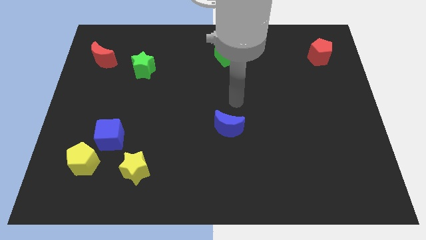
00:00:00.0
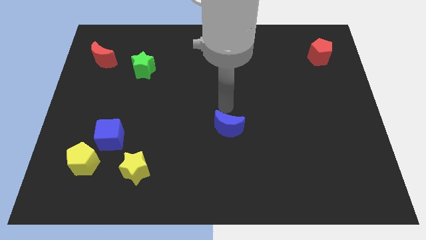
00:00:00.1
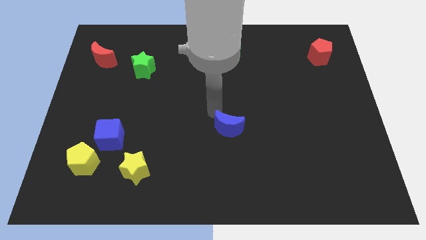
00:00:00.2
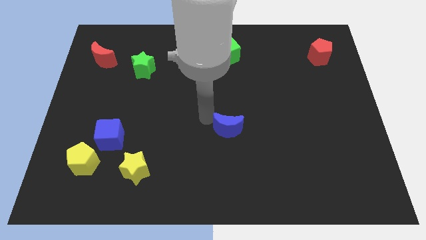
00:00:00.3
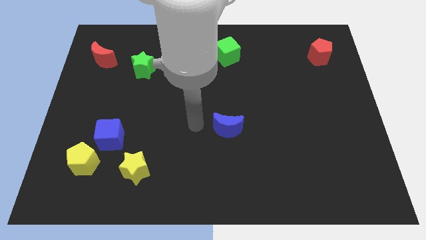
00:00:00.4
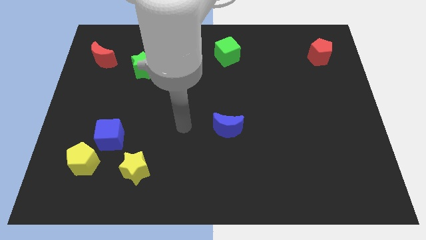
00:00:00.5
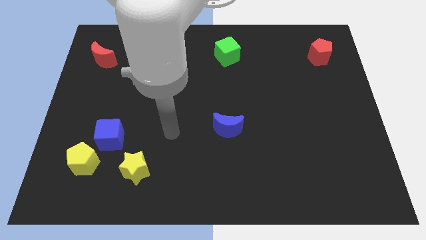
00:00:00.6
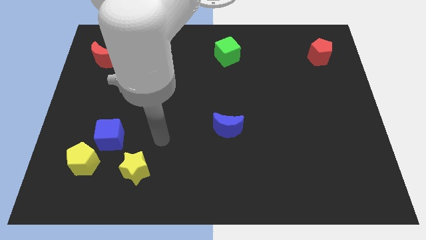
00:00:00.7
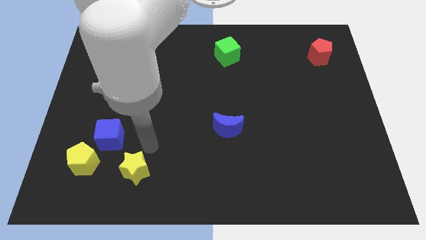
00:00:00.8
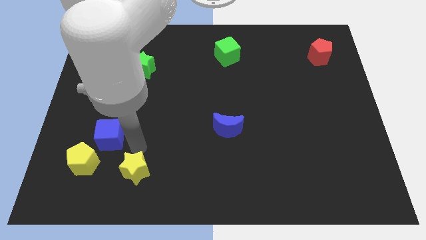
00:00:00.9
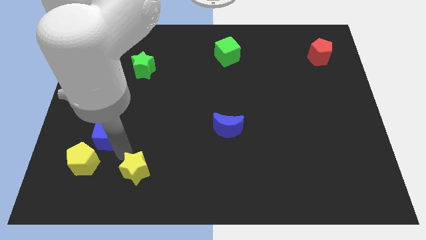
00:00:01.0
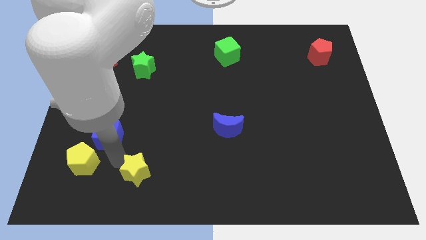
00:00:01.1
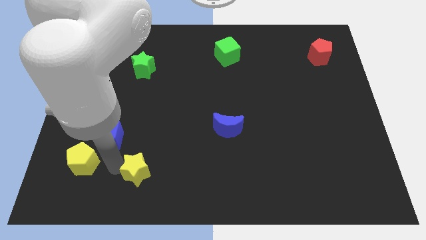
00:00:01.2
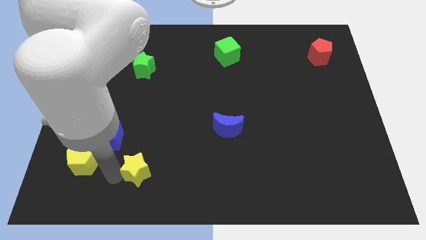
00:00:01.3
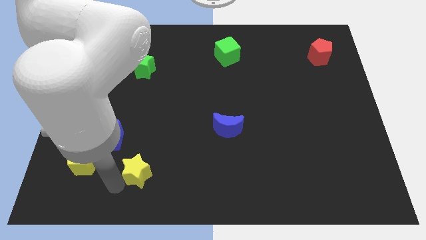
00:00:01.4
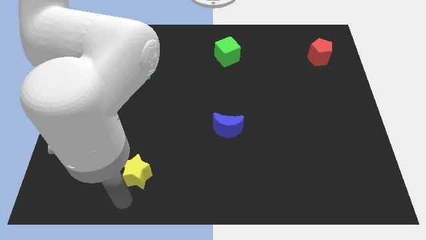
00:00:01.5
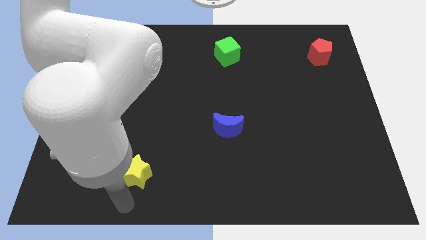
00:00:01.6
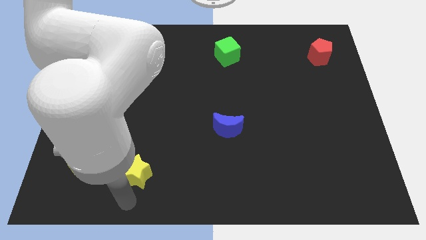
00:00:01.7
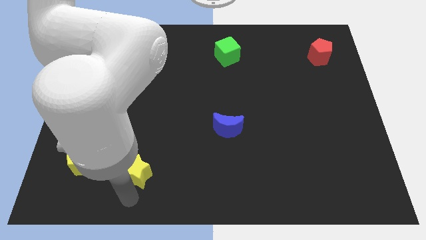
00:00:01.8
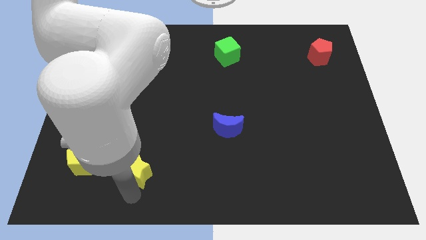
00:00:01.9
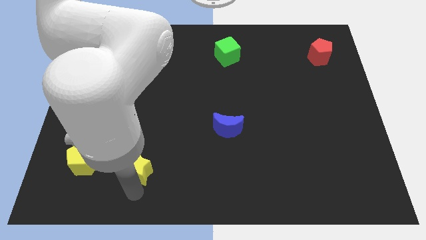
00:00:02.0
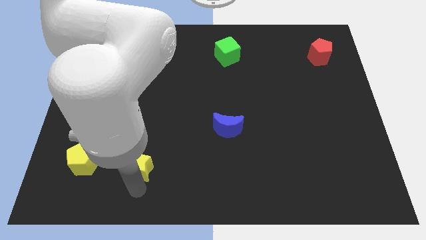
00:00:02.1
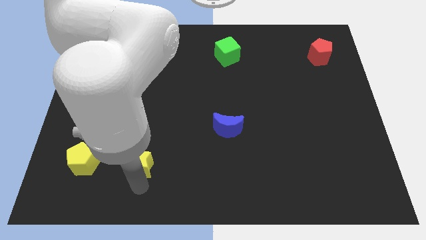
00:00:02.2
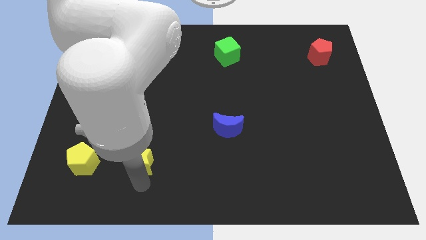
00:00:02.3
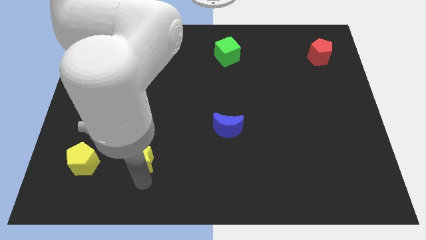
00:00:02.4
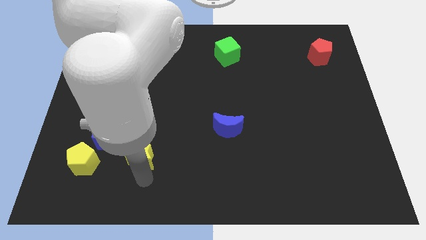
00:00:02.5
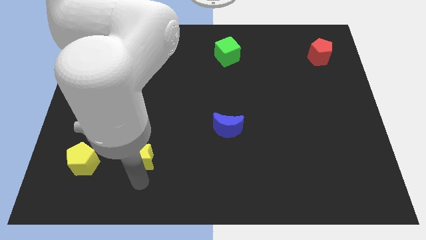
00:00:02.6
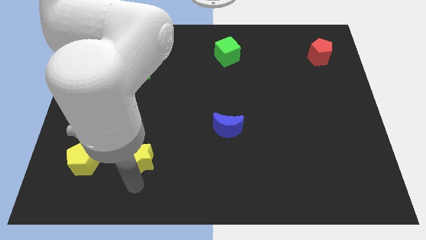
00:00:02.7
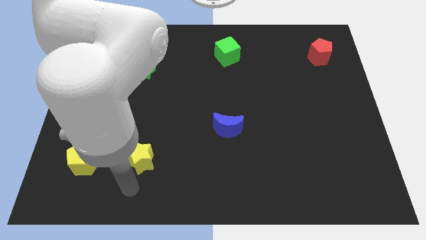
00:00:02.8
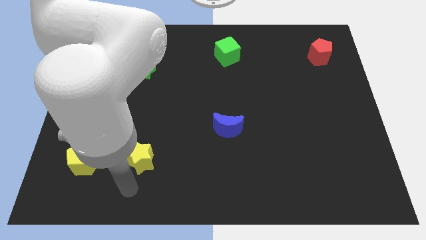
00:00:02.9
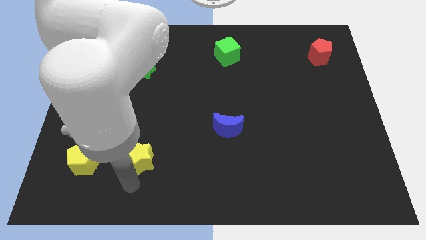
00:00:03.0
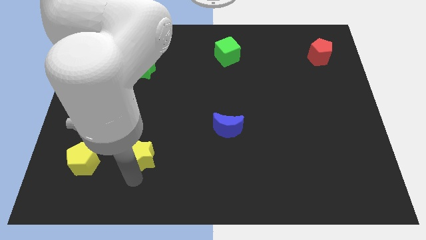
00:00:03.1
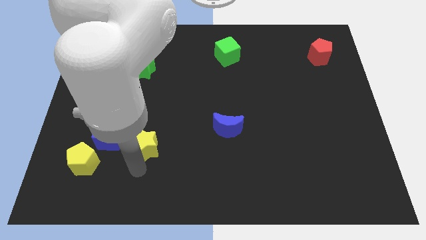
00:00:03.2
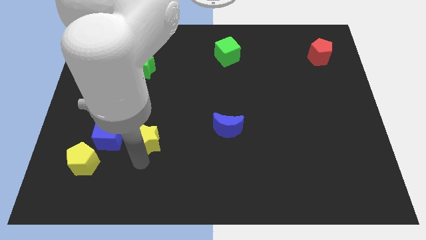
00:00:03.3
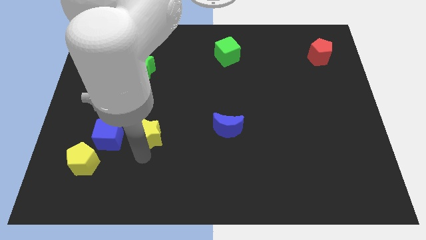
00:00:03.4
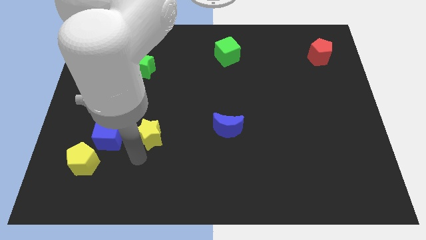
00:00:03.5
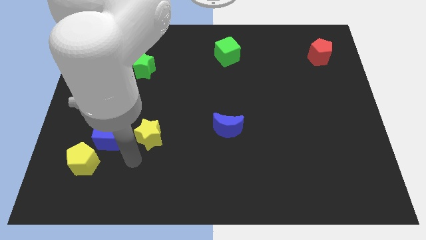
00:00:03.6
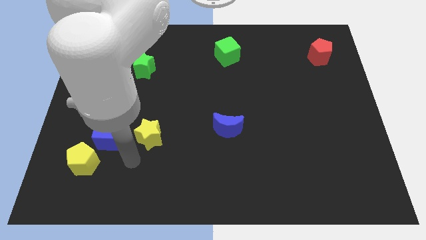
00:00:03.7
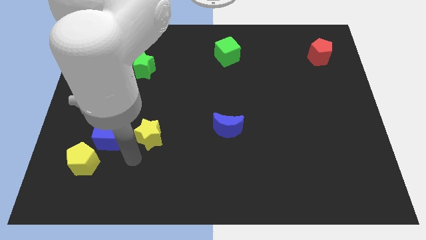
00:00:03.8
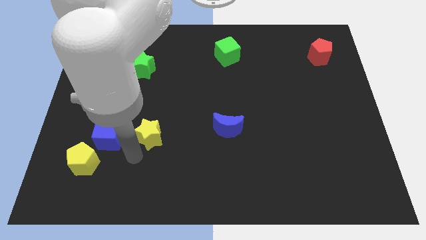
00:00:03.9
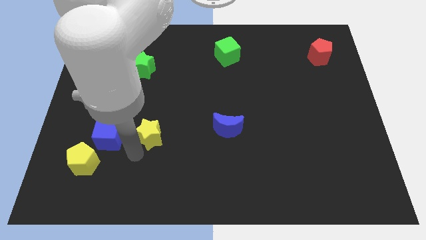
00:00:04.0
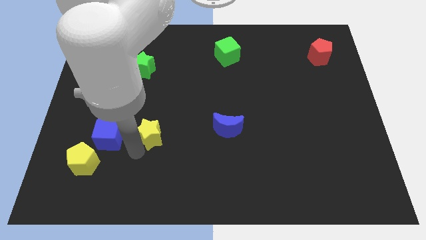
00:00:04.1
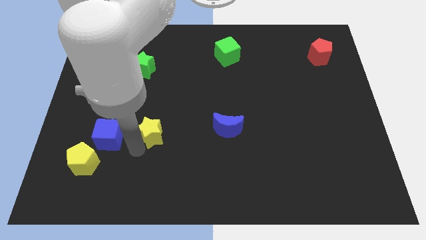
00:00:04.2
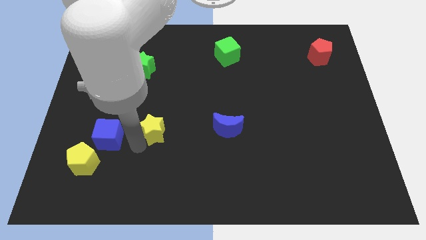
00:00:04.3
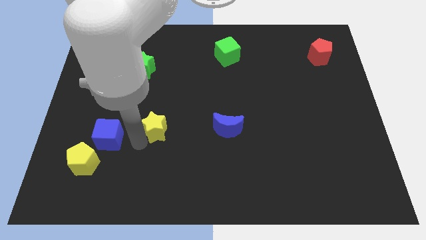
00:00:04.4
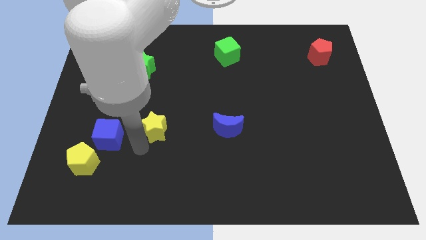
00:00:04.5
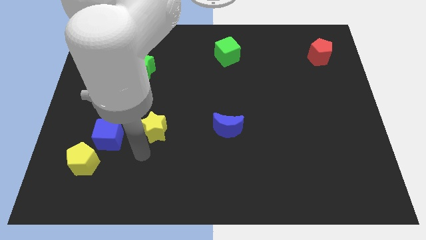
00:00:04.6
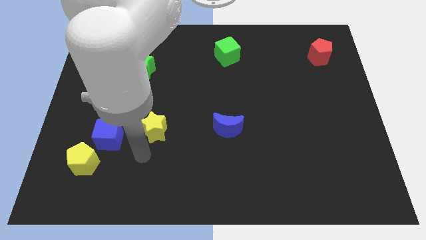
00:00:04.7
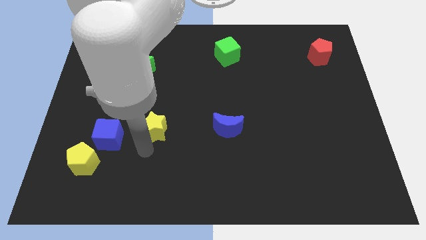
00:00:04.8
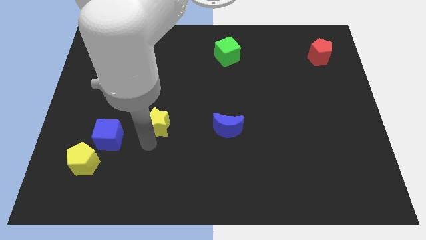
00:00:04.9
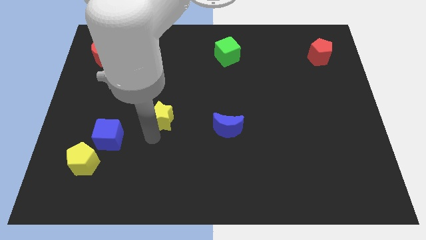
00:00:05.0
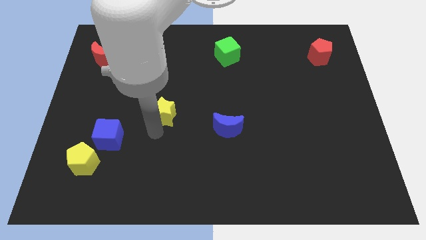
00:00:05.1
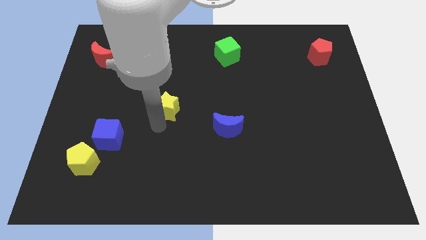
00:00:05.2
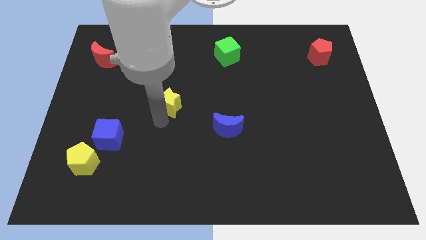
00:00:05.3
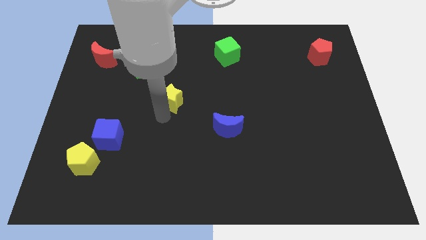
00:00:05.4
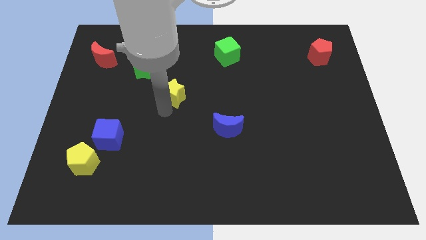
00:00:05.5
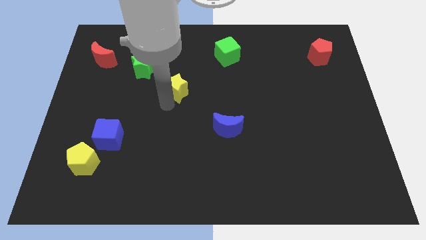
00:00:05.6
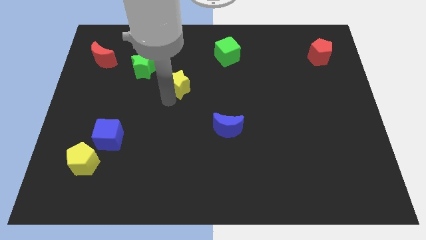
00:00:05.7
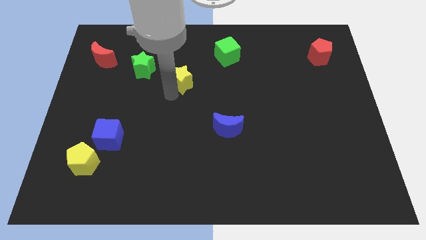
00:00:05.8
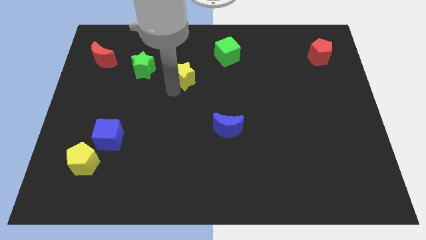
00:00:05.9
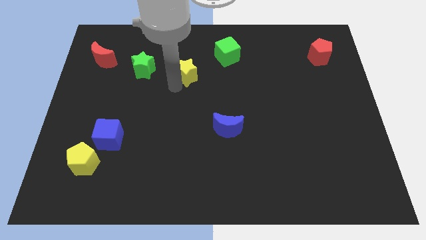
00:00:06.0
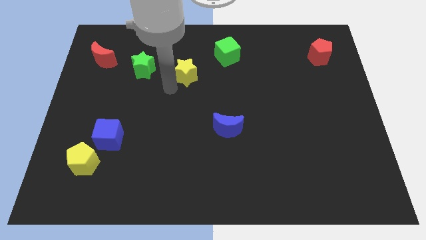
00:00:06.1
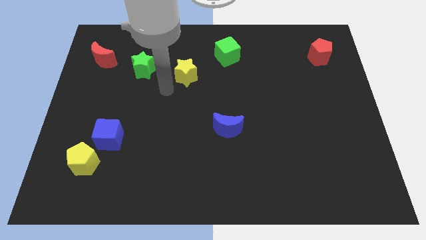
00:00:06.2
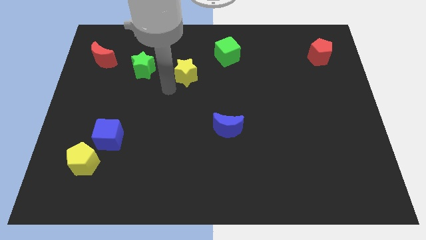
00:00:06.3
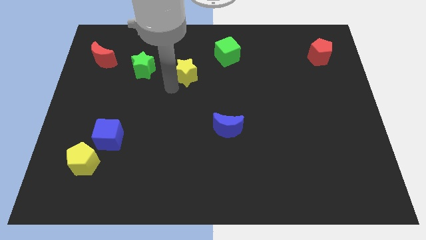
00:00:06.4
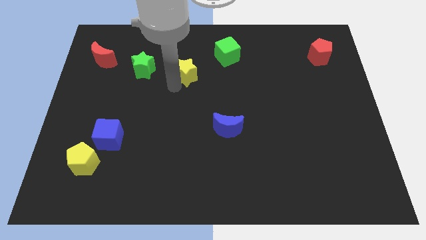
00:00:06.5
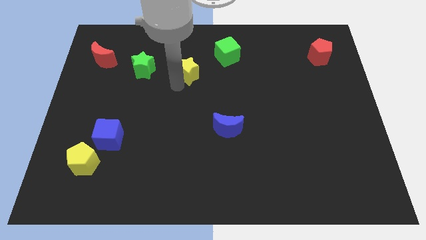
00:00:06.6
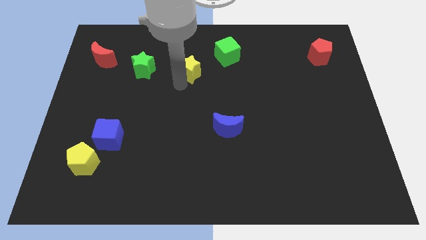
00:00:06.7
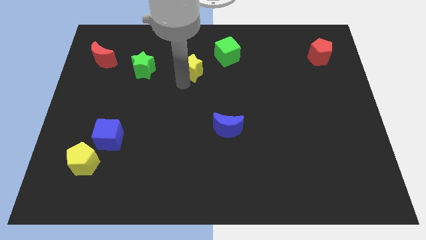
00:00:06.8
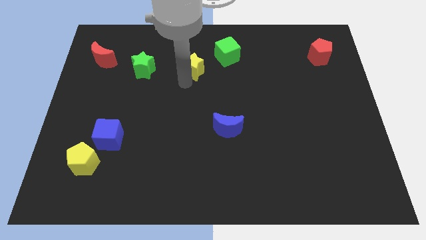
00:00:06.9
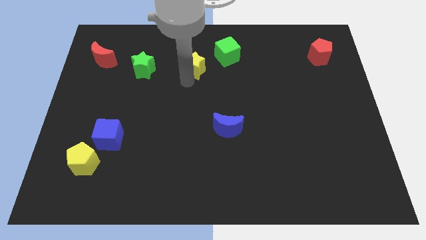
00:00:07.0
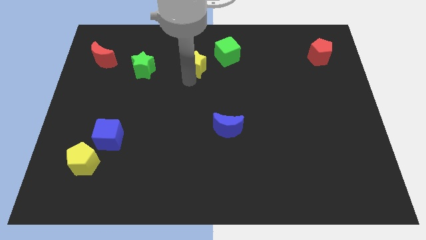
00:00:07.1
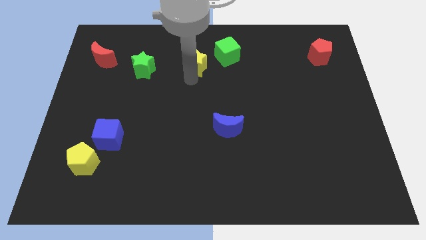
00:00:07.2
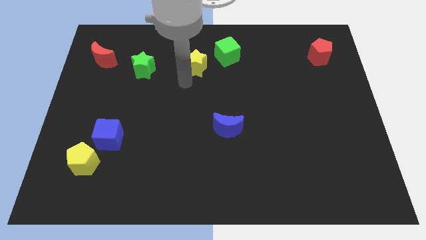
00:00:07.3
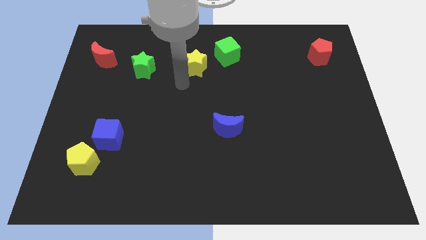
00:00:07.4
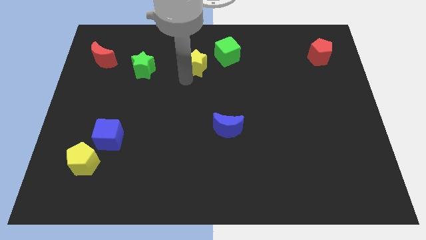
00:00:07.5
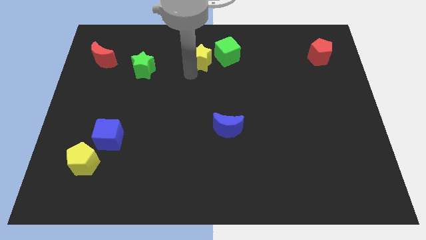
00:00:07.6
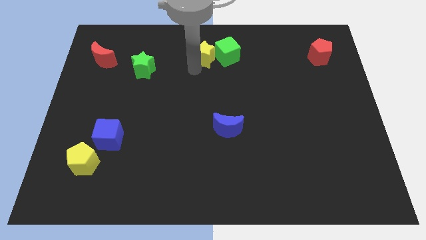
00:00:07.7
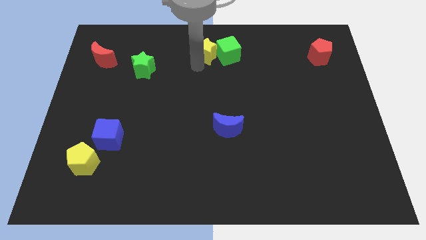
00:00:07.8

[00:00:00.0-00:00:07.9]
slide the yellow star to the towards your base
